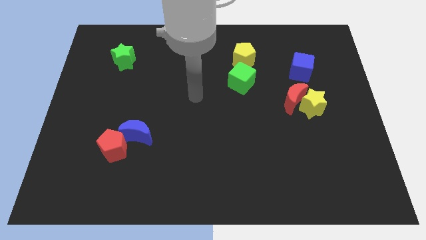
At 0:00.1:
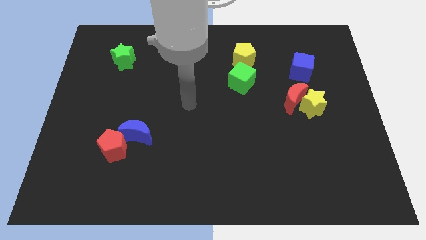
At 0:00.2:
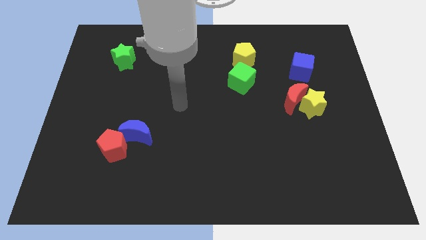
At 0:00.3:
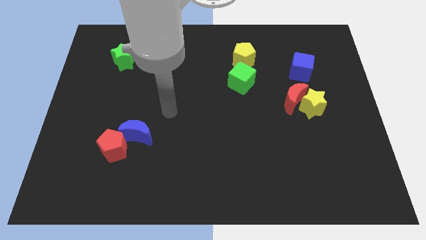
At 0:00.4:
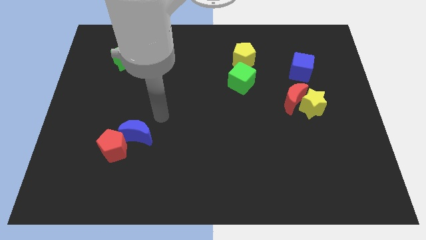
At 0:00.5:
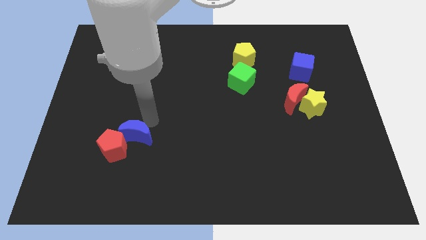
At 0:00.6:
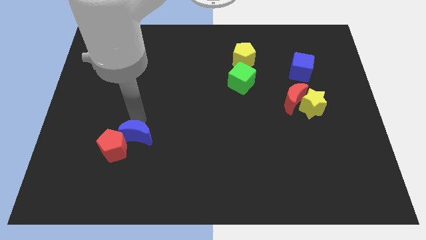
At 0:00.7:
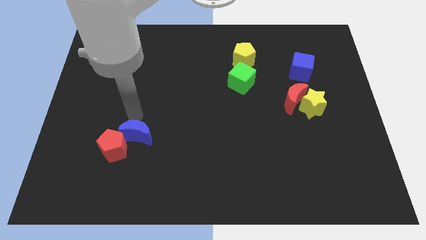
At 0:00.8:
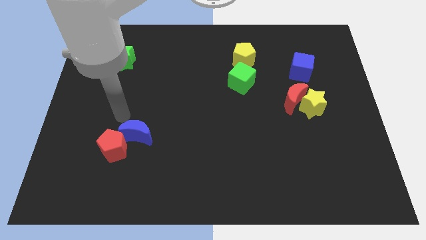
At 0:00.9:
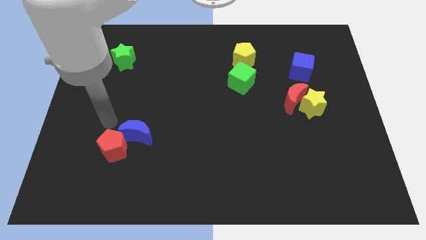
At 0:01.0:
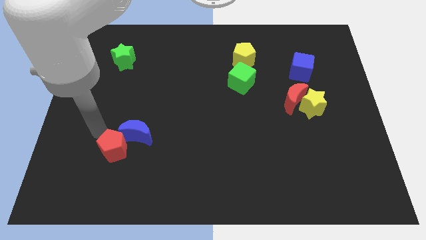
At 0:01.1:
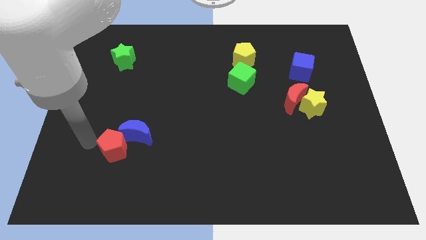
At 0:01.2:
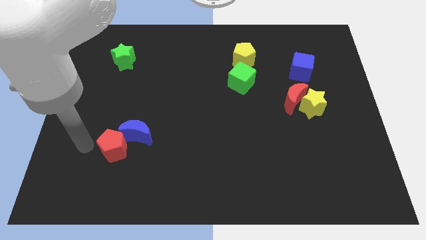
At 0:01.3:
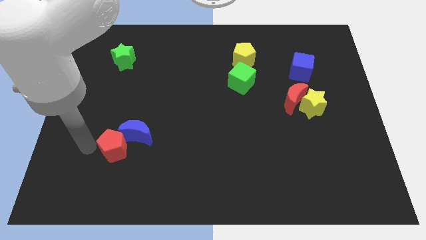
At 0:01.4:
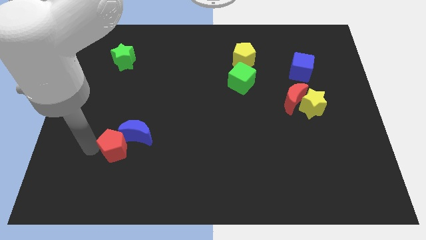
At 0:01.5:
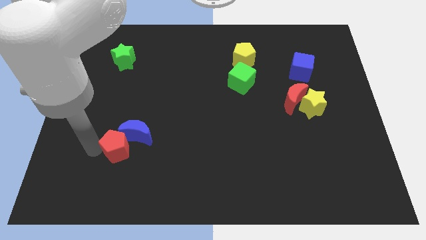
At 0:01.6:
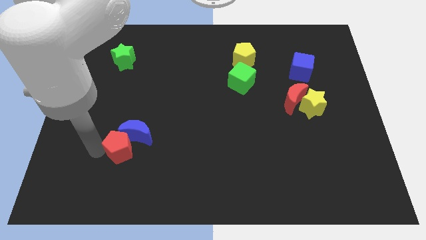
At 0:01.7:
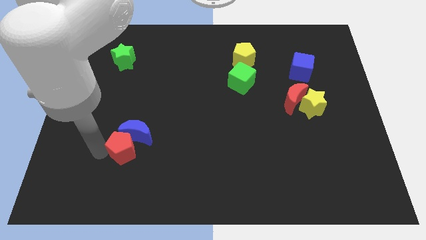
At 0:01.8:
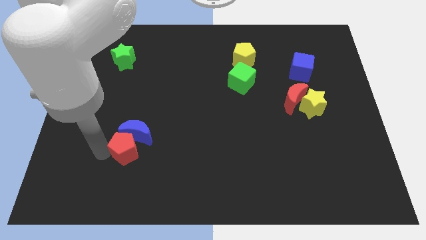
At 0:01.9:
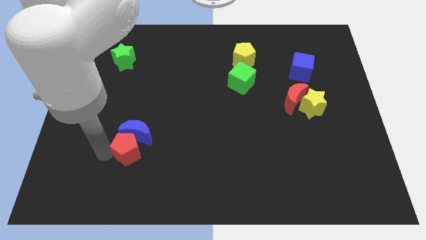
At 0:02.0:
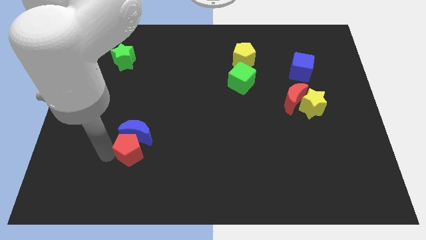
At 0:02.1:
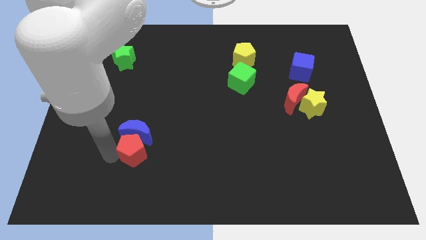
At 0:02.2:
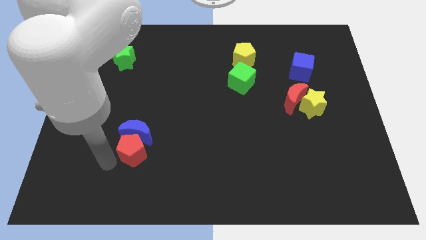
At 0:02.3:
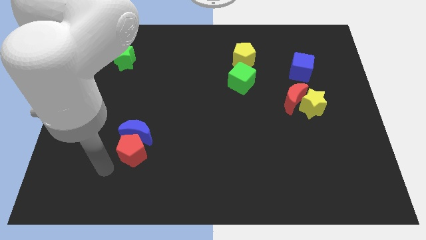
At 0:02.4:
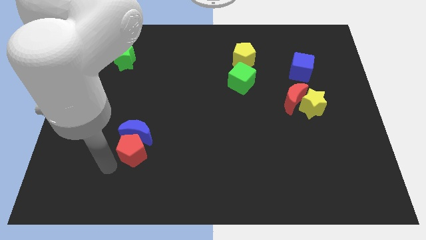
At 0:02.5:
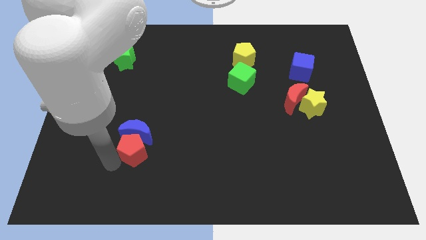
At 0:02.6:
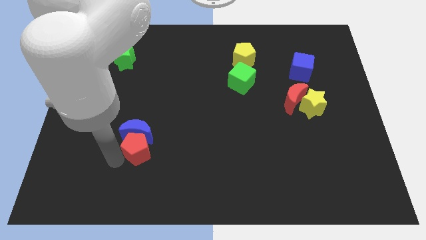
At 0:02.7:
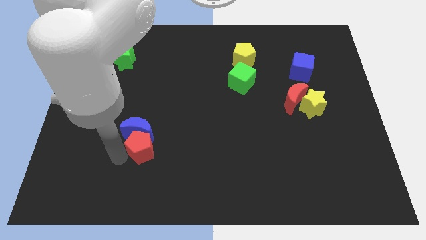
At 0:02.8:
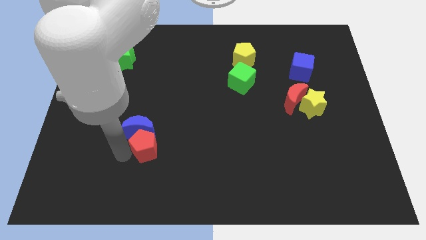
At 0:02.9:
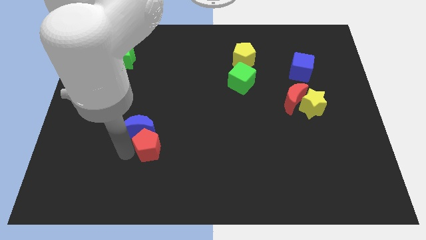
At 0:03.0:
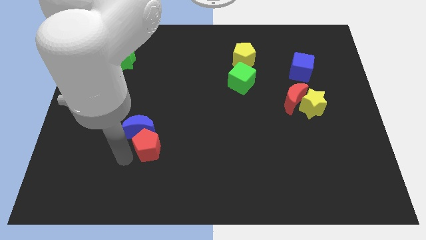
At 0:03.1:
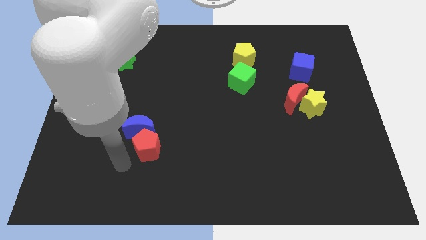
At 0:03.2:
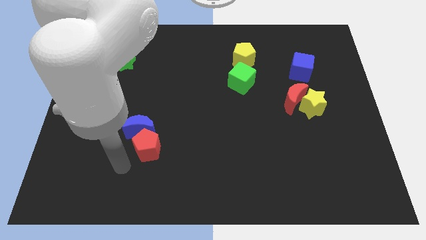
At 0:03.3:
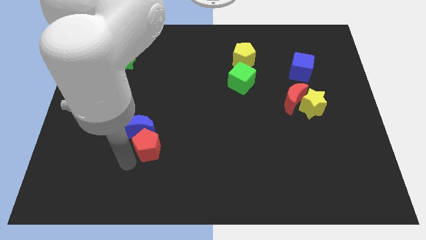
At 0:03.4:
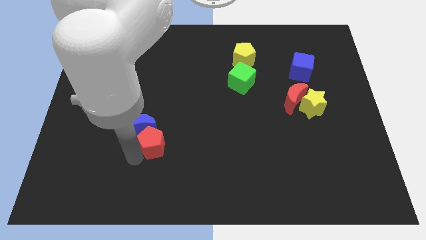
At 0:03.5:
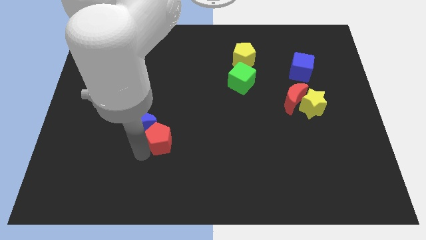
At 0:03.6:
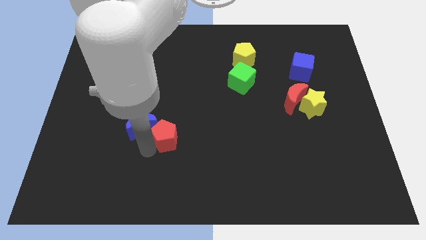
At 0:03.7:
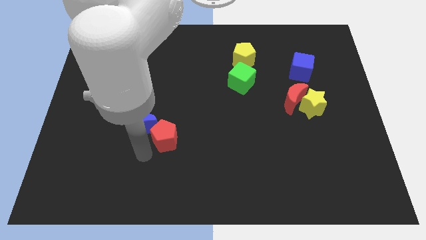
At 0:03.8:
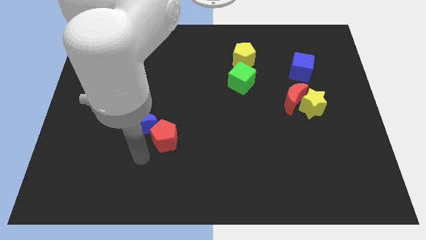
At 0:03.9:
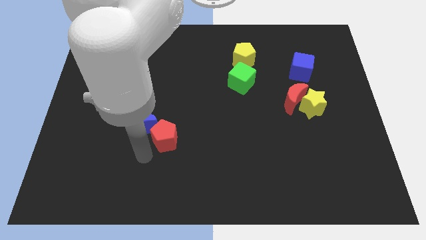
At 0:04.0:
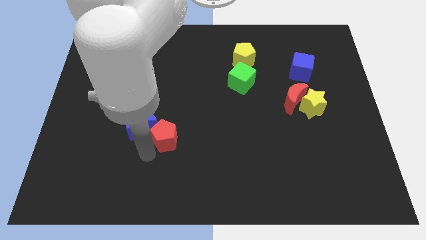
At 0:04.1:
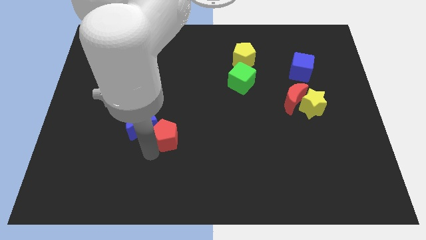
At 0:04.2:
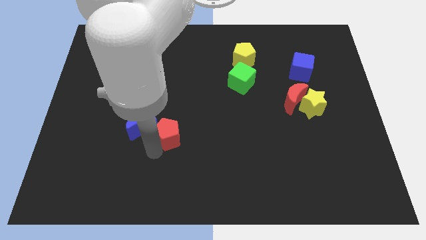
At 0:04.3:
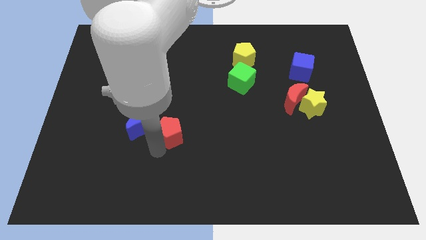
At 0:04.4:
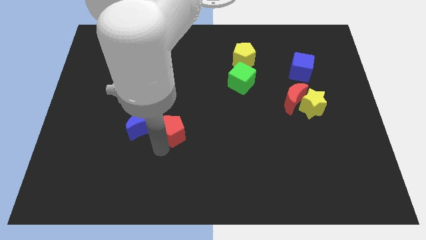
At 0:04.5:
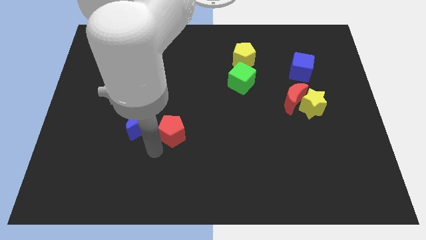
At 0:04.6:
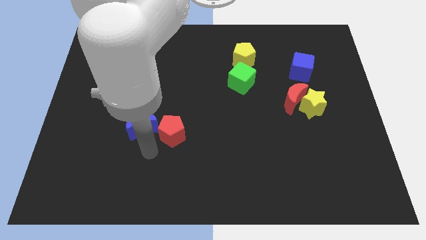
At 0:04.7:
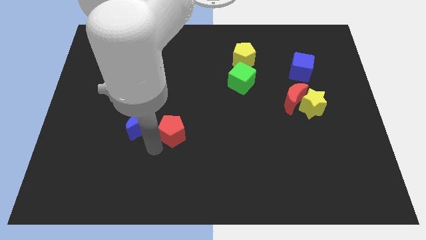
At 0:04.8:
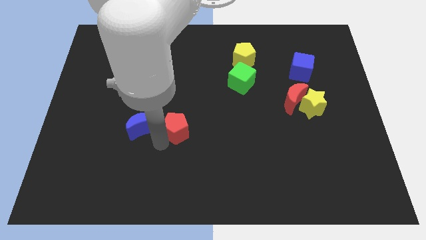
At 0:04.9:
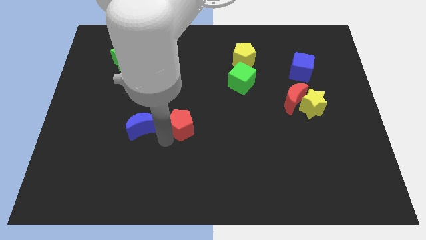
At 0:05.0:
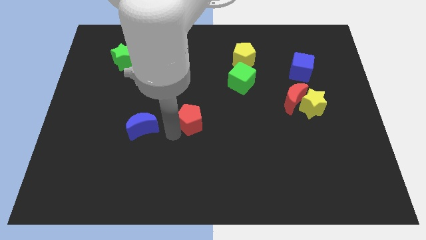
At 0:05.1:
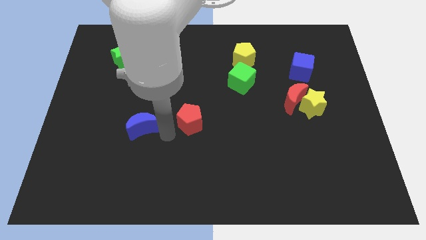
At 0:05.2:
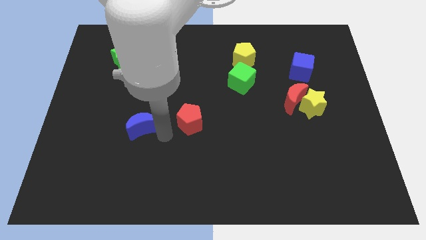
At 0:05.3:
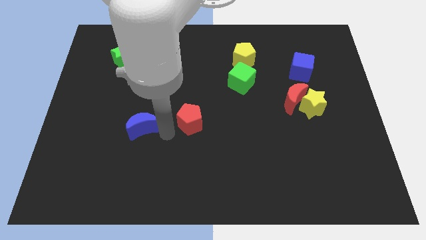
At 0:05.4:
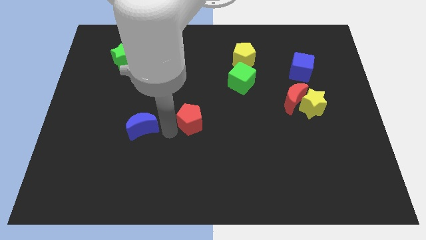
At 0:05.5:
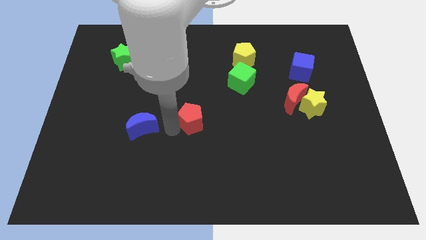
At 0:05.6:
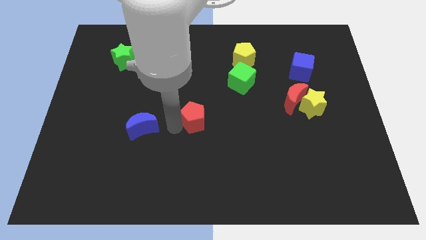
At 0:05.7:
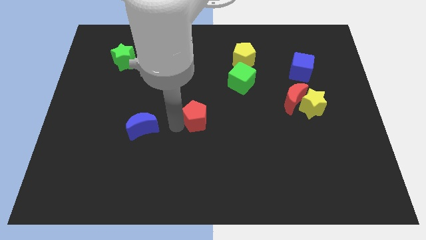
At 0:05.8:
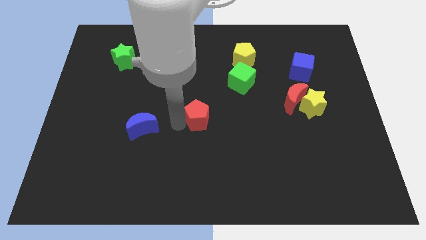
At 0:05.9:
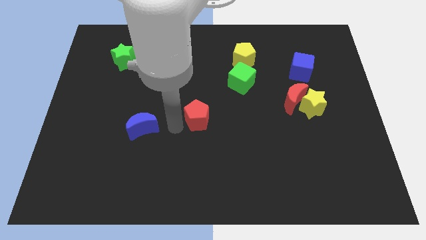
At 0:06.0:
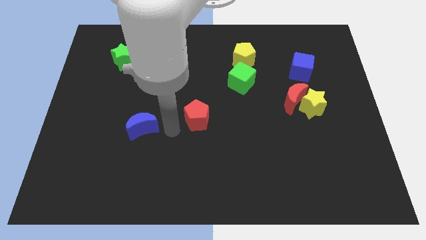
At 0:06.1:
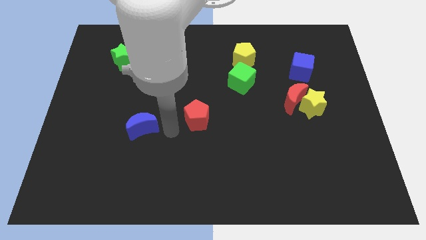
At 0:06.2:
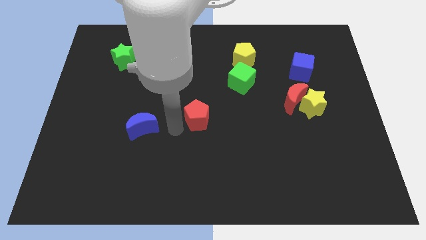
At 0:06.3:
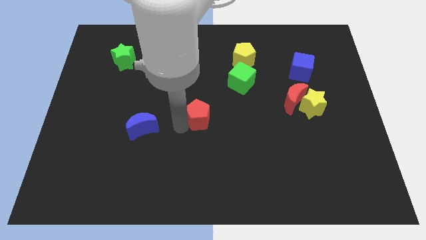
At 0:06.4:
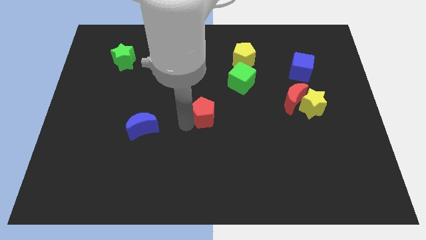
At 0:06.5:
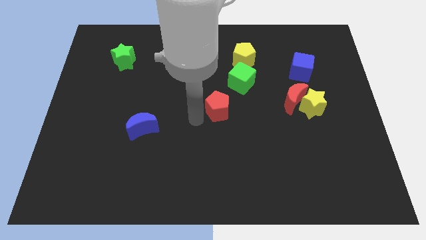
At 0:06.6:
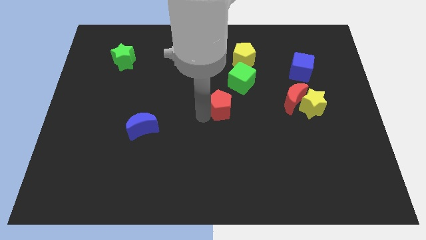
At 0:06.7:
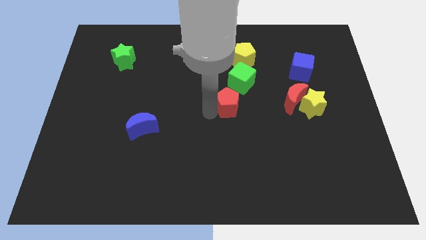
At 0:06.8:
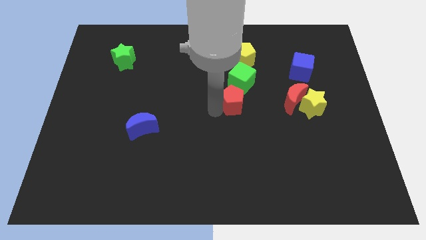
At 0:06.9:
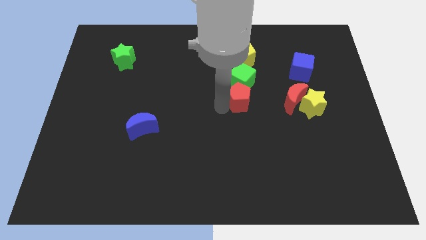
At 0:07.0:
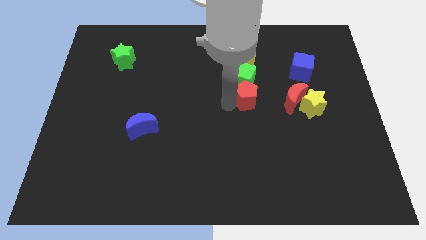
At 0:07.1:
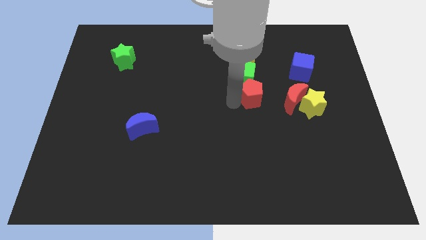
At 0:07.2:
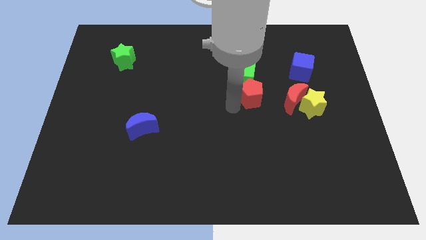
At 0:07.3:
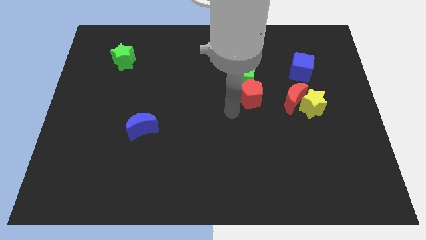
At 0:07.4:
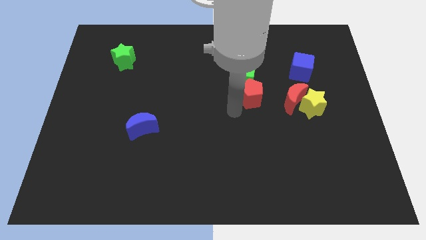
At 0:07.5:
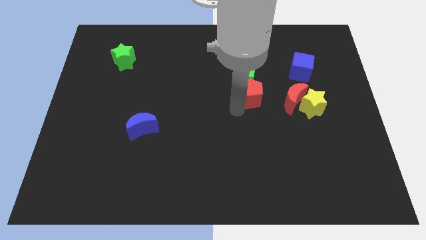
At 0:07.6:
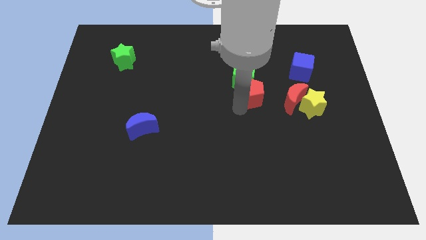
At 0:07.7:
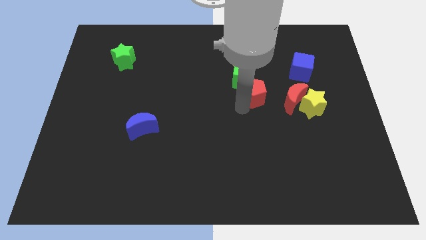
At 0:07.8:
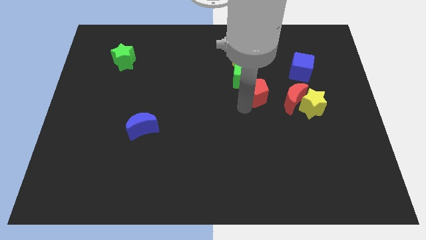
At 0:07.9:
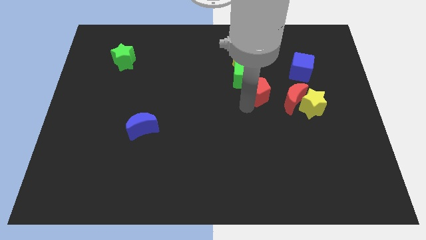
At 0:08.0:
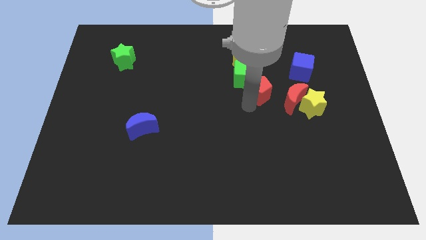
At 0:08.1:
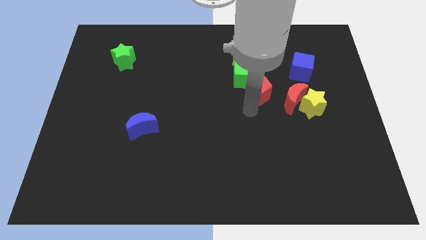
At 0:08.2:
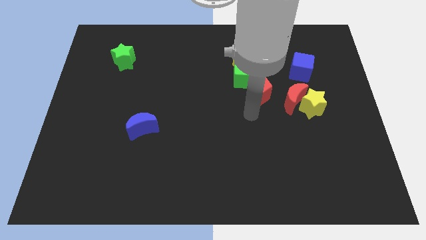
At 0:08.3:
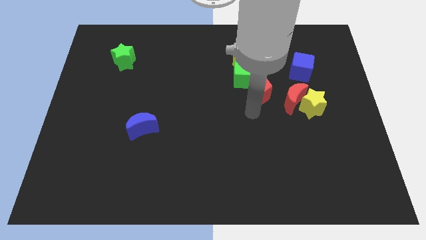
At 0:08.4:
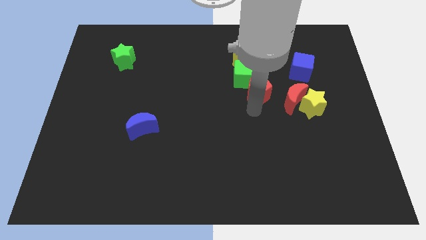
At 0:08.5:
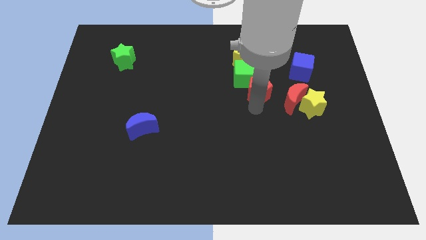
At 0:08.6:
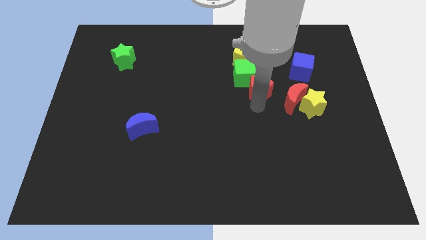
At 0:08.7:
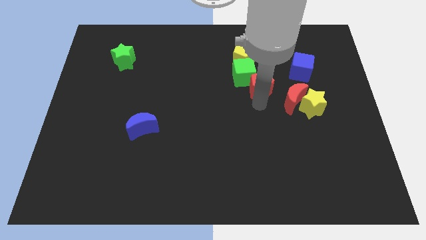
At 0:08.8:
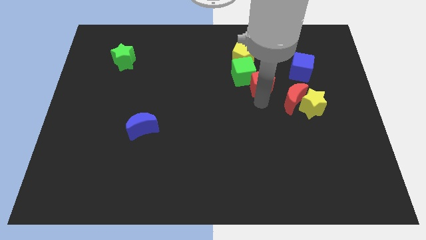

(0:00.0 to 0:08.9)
slide the red pentagon to the bottom right side of the yellow pentagon
